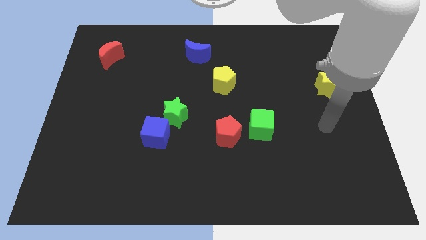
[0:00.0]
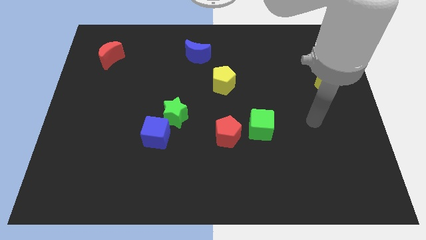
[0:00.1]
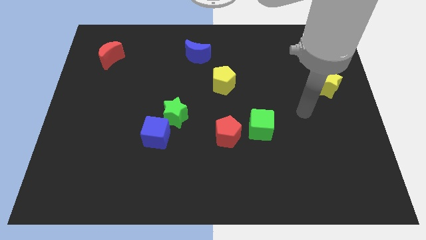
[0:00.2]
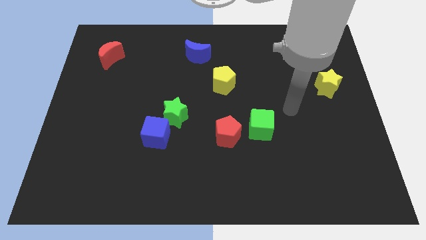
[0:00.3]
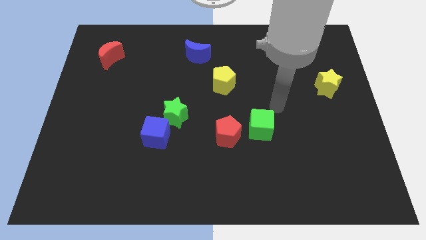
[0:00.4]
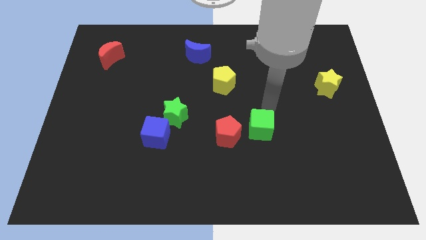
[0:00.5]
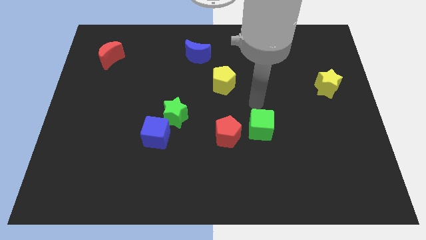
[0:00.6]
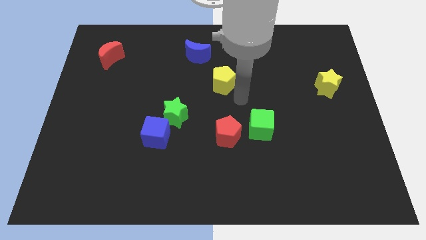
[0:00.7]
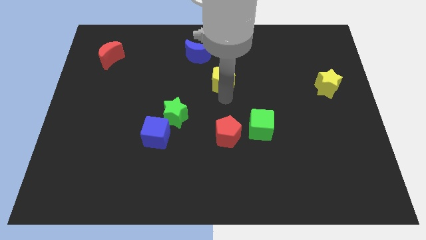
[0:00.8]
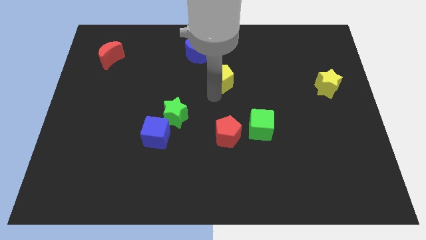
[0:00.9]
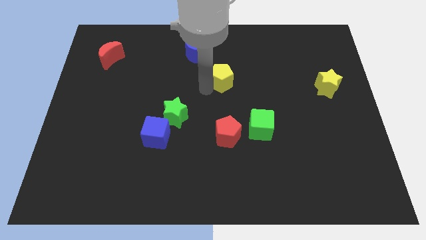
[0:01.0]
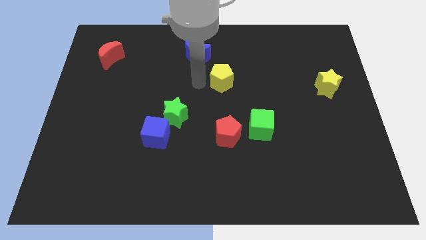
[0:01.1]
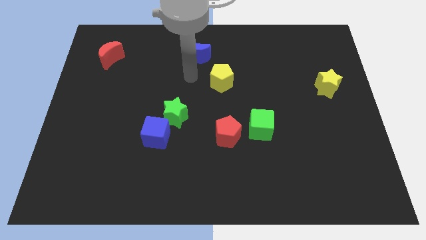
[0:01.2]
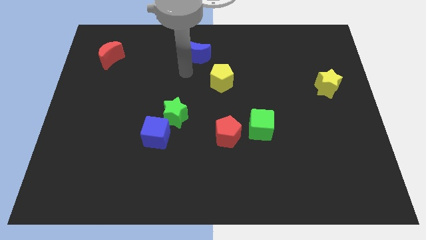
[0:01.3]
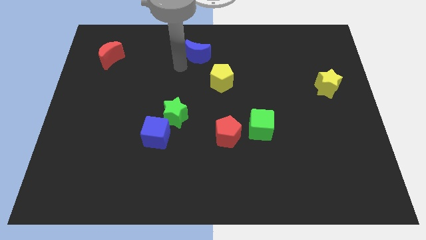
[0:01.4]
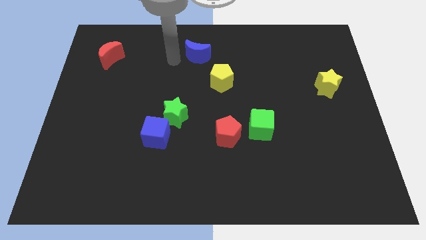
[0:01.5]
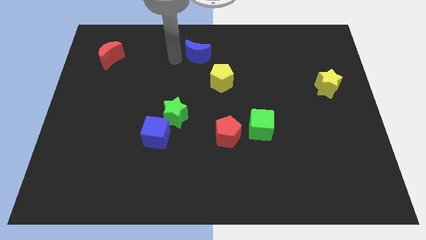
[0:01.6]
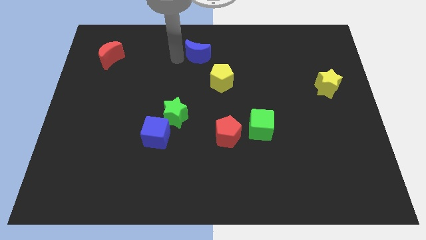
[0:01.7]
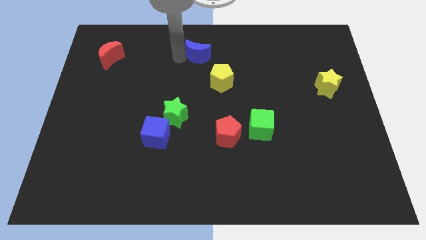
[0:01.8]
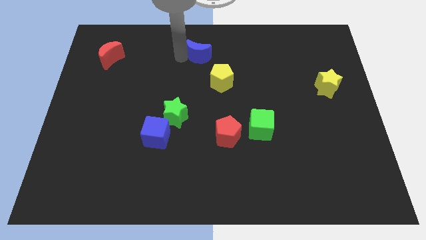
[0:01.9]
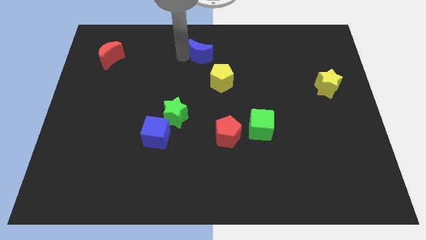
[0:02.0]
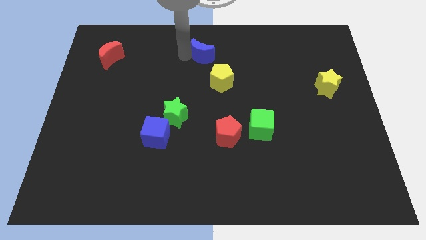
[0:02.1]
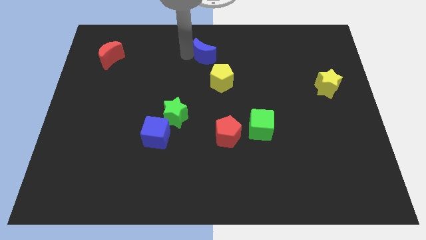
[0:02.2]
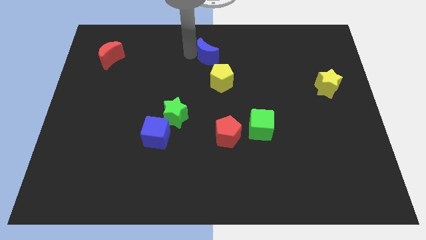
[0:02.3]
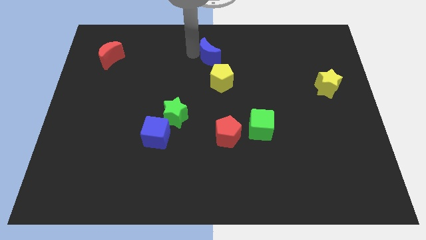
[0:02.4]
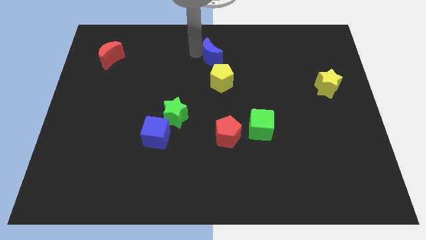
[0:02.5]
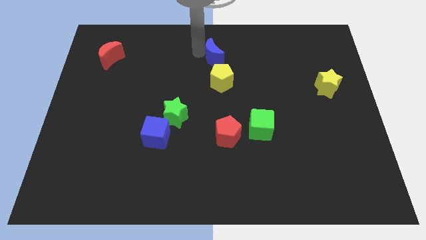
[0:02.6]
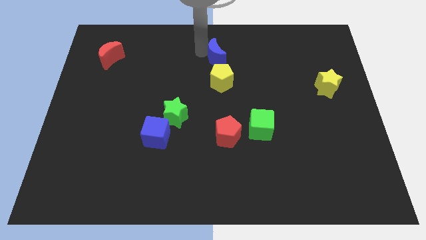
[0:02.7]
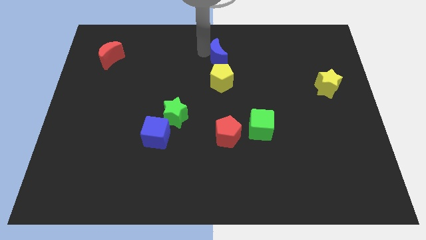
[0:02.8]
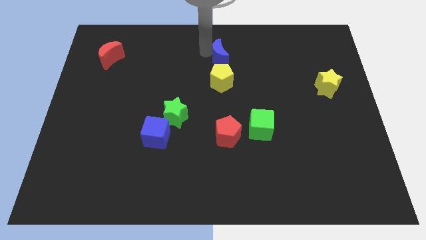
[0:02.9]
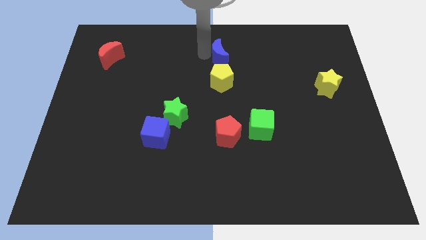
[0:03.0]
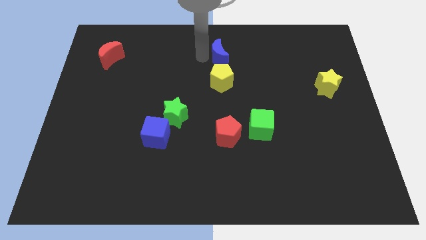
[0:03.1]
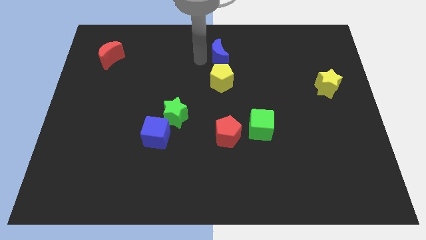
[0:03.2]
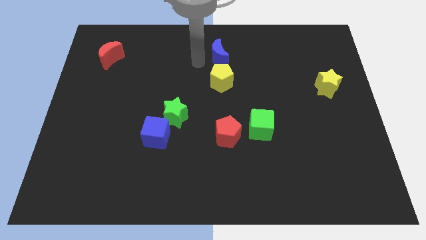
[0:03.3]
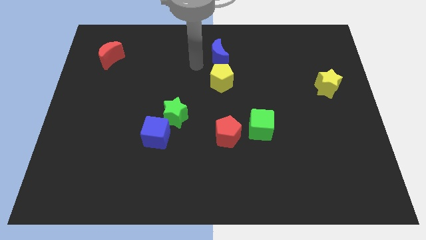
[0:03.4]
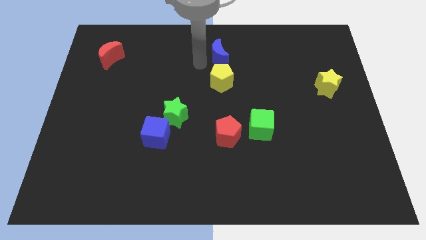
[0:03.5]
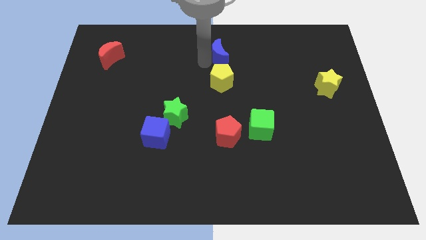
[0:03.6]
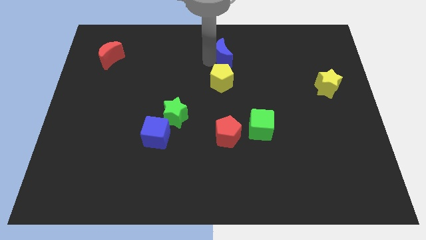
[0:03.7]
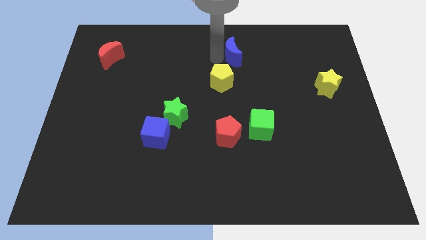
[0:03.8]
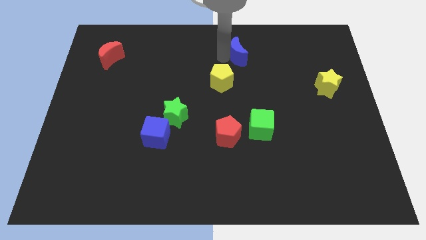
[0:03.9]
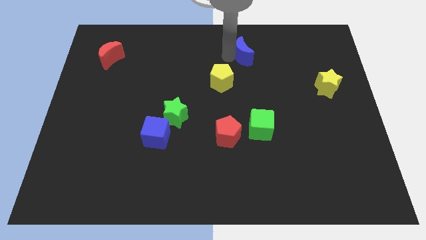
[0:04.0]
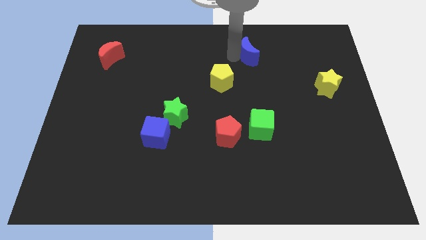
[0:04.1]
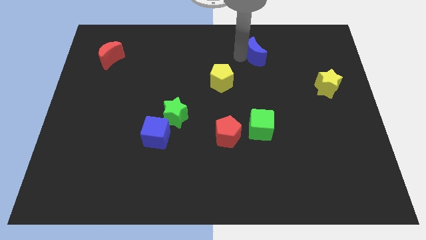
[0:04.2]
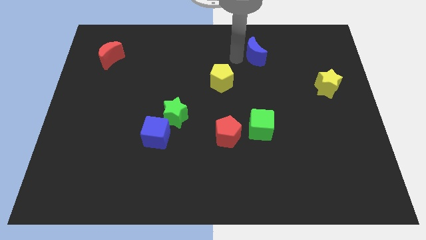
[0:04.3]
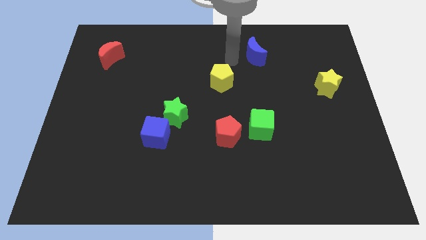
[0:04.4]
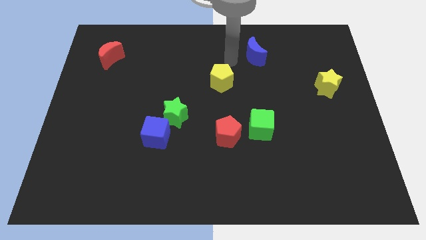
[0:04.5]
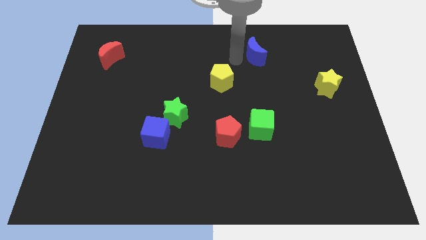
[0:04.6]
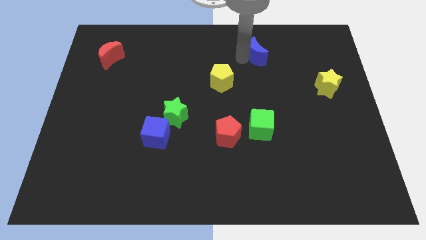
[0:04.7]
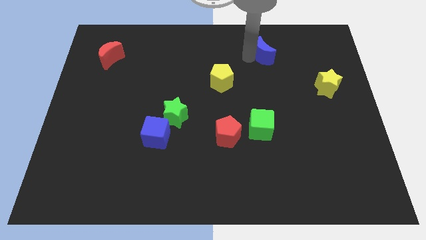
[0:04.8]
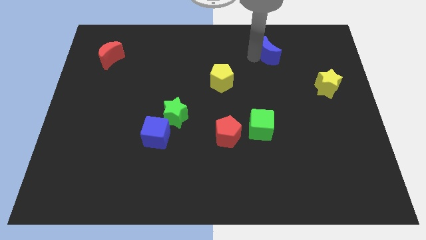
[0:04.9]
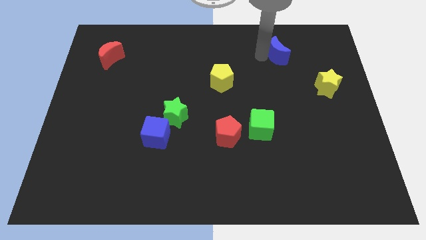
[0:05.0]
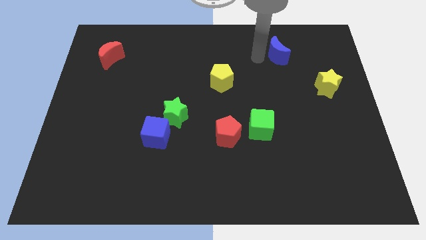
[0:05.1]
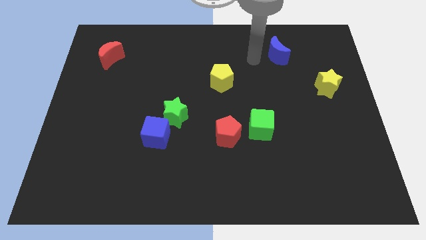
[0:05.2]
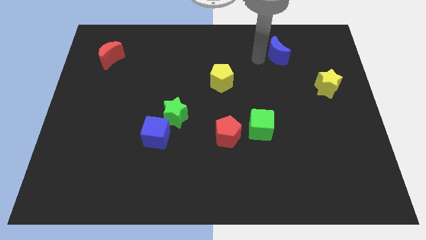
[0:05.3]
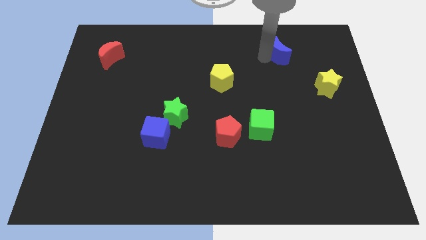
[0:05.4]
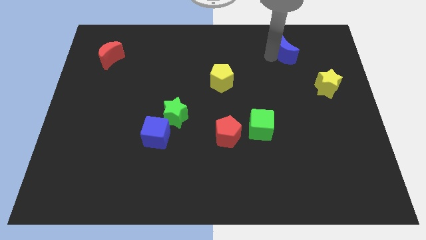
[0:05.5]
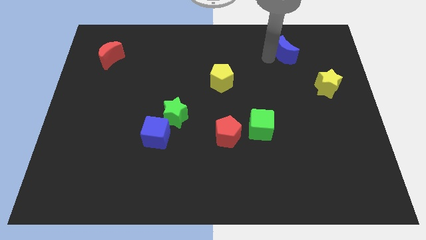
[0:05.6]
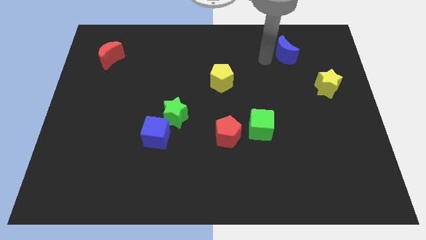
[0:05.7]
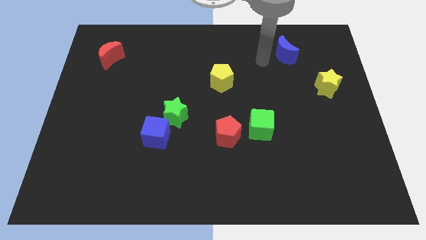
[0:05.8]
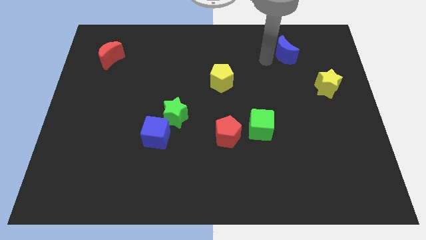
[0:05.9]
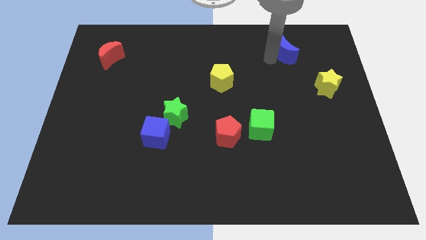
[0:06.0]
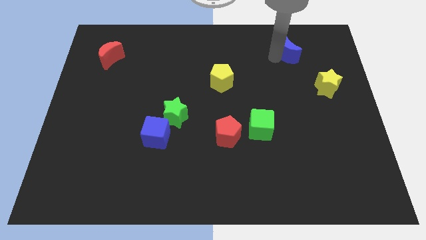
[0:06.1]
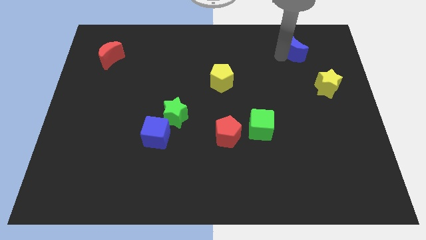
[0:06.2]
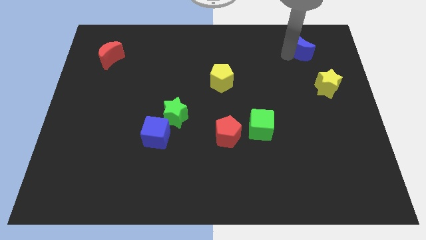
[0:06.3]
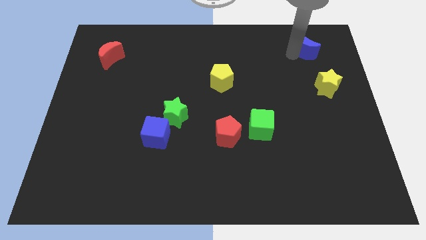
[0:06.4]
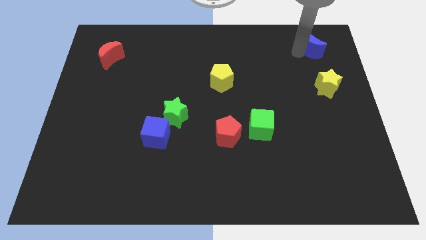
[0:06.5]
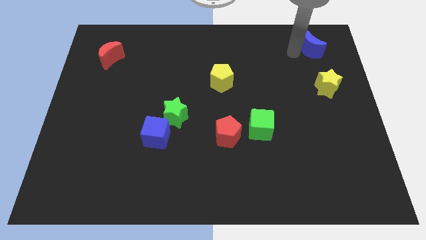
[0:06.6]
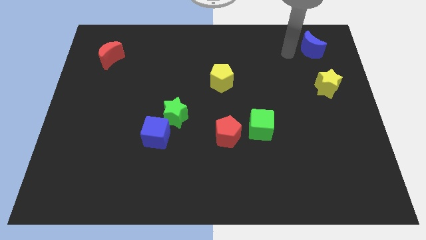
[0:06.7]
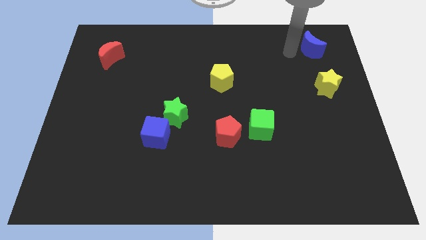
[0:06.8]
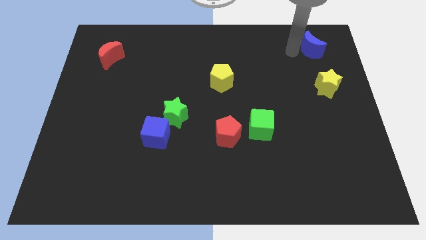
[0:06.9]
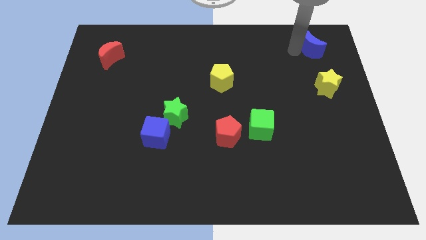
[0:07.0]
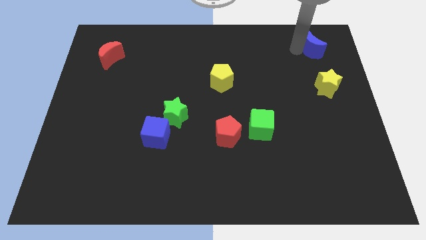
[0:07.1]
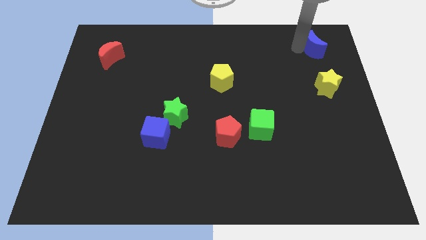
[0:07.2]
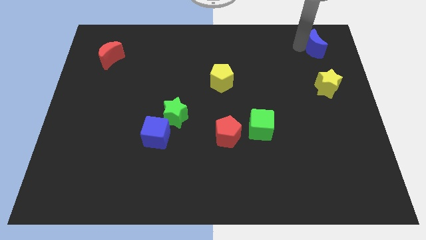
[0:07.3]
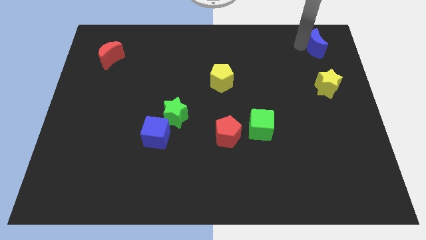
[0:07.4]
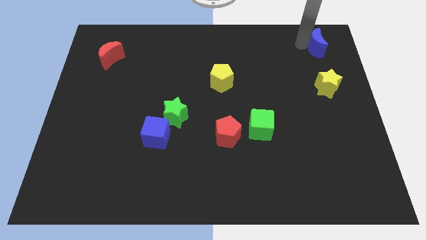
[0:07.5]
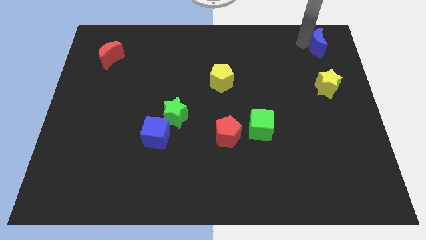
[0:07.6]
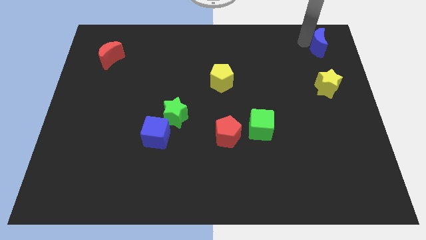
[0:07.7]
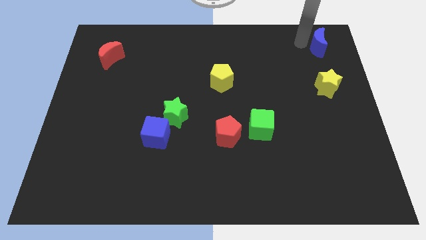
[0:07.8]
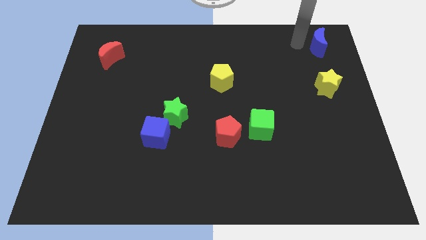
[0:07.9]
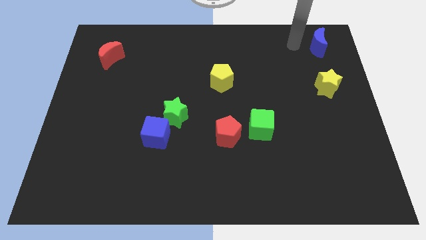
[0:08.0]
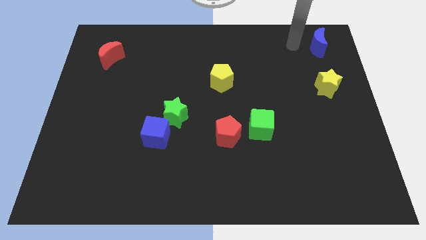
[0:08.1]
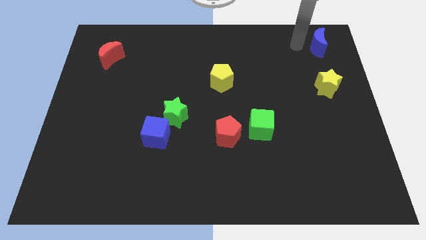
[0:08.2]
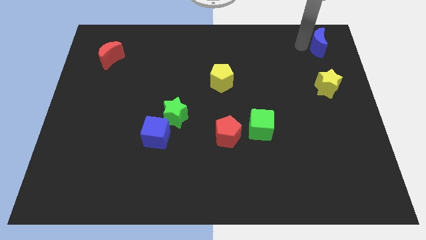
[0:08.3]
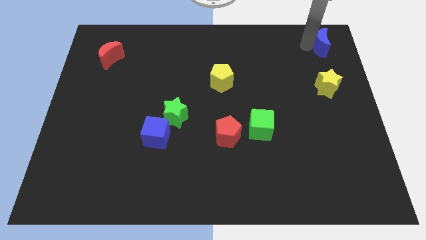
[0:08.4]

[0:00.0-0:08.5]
put the blue moon to the top right

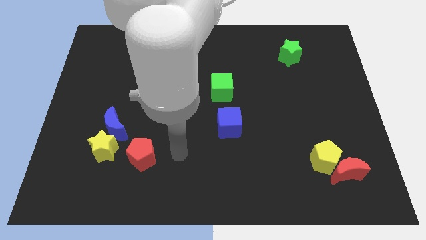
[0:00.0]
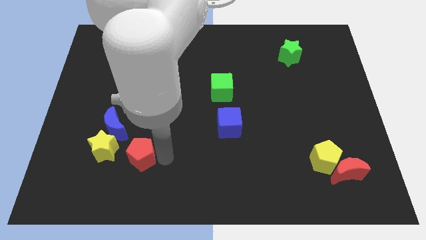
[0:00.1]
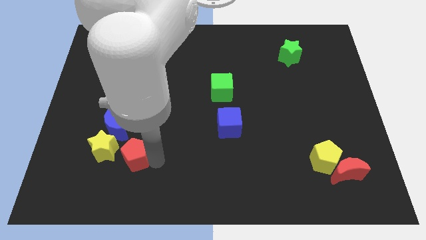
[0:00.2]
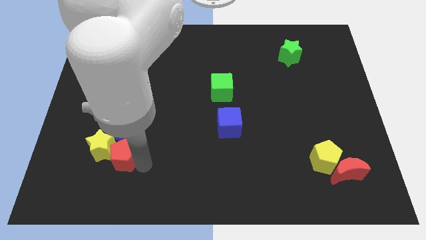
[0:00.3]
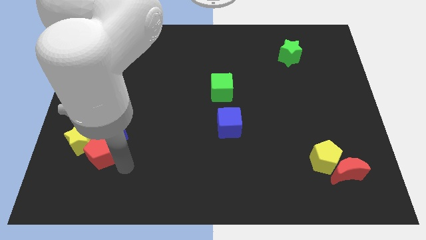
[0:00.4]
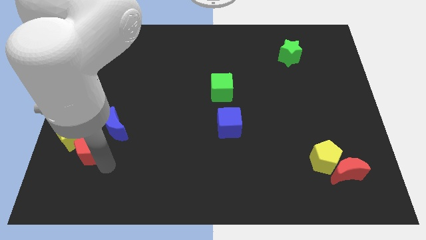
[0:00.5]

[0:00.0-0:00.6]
push the yellow star to the left side
